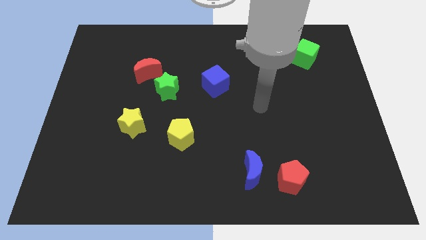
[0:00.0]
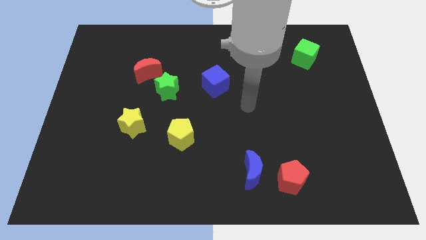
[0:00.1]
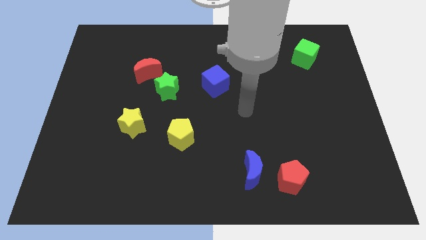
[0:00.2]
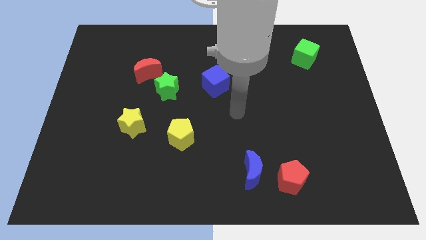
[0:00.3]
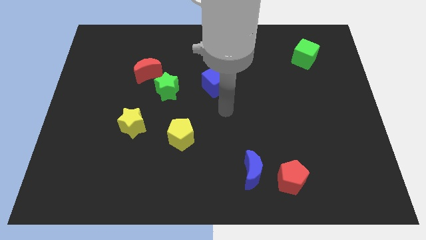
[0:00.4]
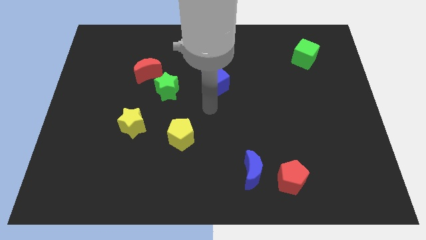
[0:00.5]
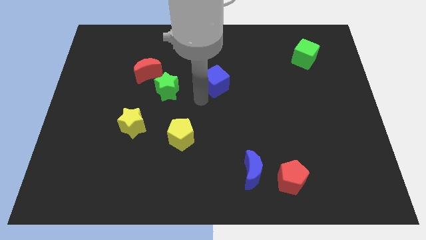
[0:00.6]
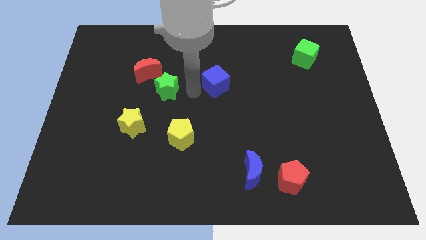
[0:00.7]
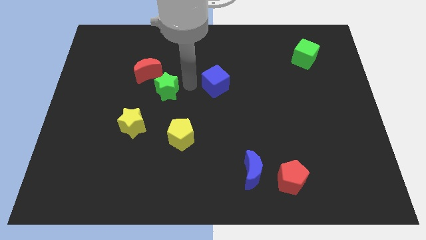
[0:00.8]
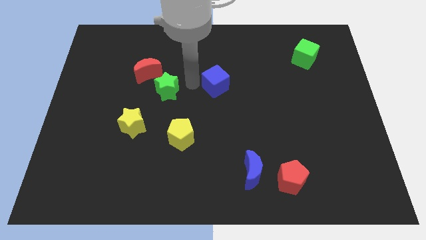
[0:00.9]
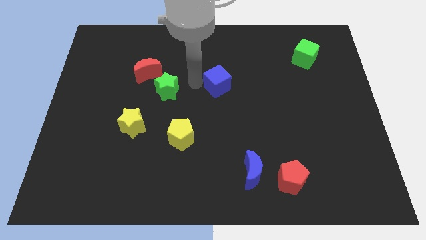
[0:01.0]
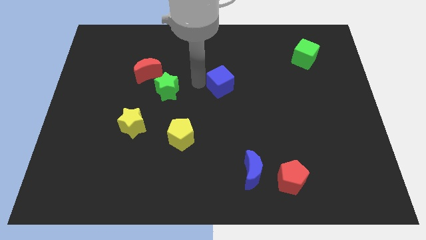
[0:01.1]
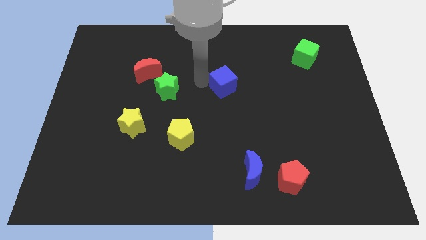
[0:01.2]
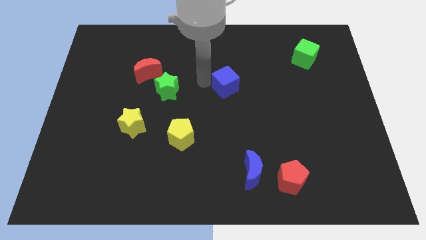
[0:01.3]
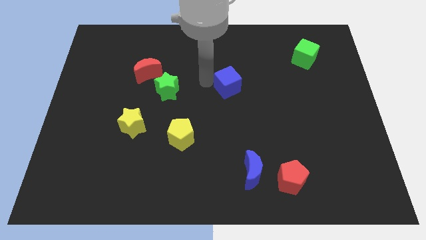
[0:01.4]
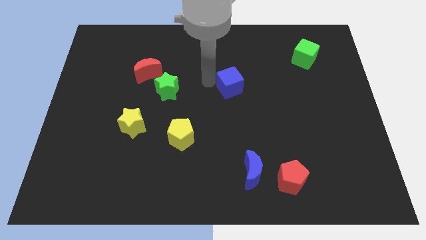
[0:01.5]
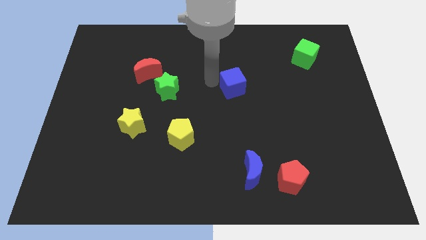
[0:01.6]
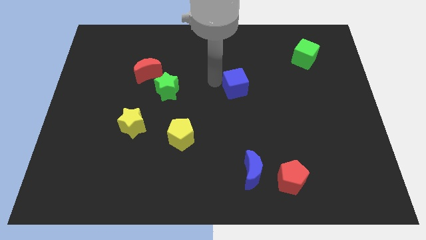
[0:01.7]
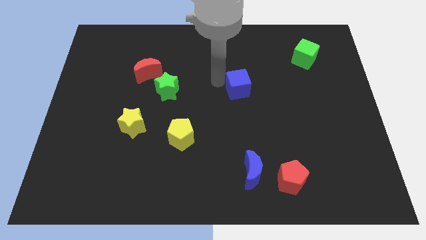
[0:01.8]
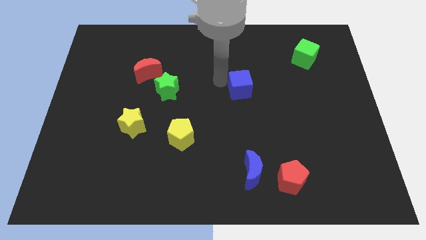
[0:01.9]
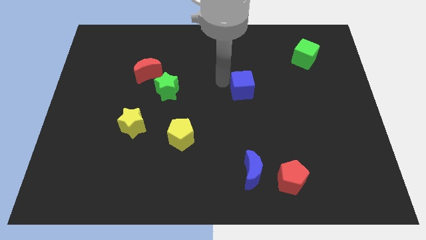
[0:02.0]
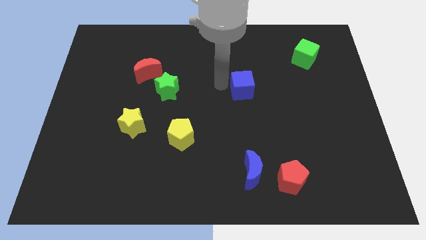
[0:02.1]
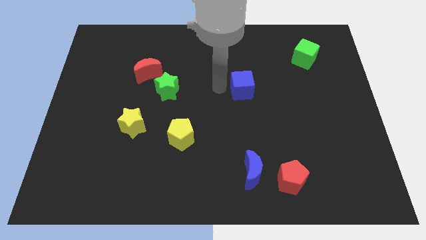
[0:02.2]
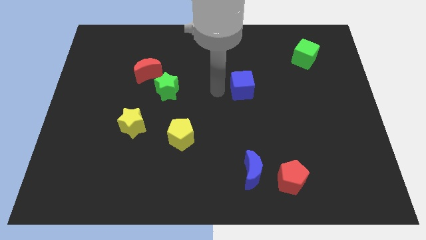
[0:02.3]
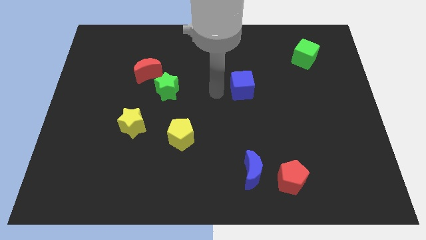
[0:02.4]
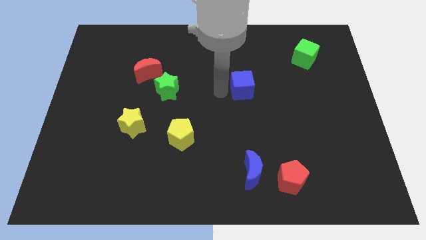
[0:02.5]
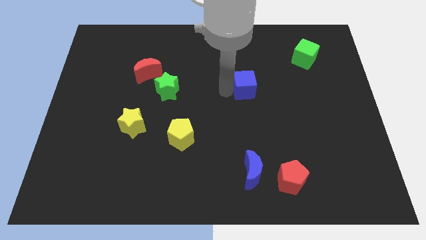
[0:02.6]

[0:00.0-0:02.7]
slightly move the blue cube to the right

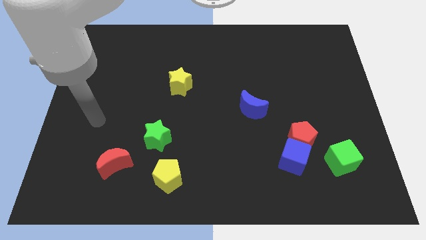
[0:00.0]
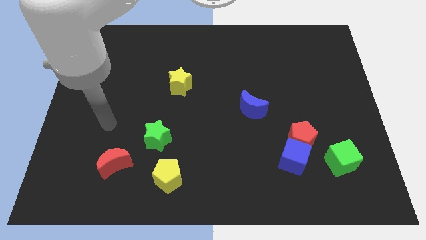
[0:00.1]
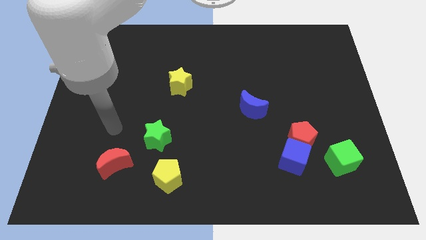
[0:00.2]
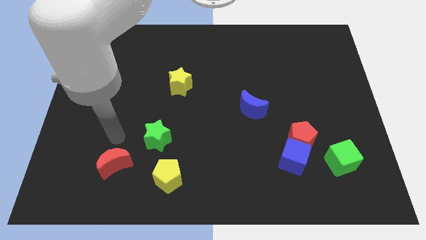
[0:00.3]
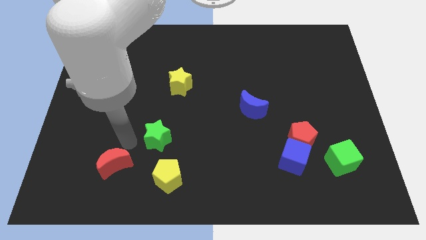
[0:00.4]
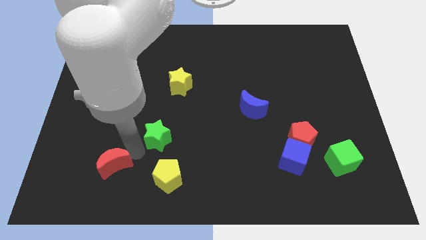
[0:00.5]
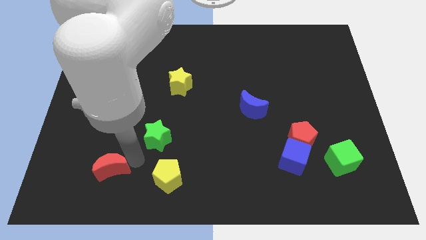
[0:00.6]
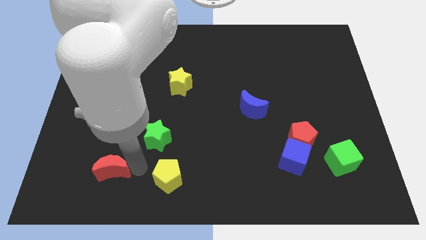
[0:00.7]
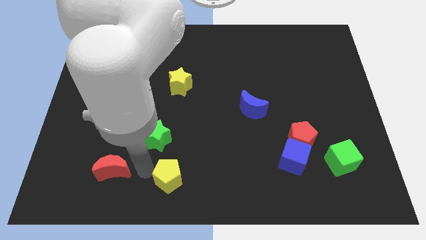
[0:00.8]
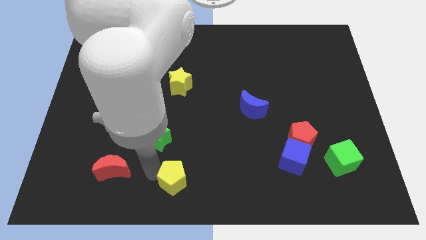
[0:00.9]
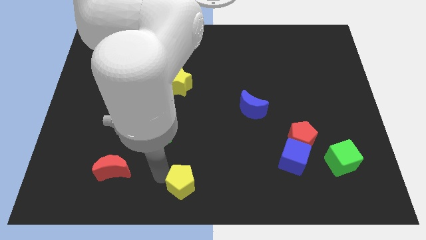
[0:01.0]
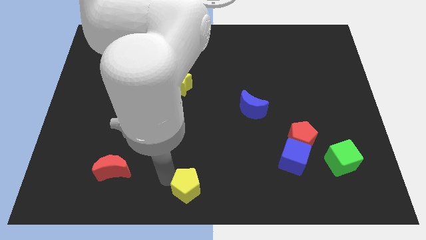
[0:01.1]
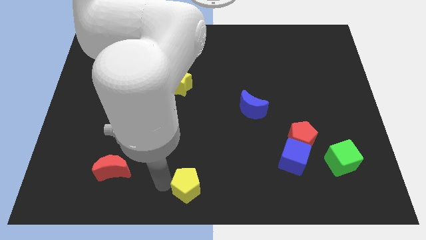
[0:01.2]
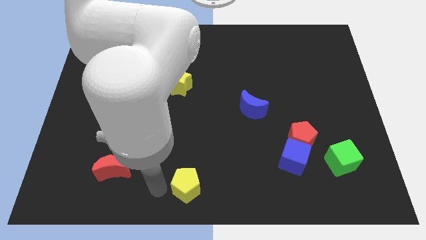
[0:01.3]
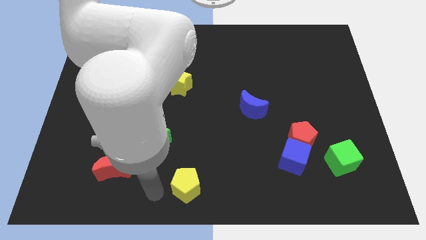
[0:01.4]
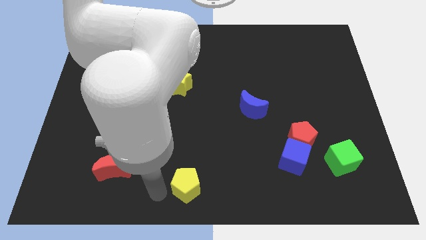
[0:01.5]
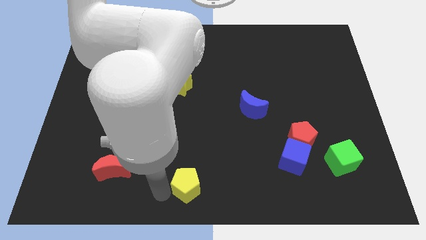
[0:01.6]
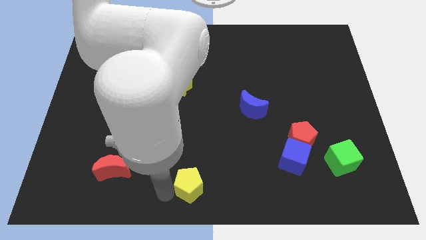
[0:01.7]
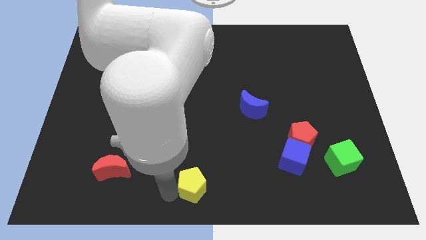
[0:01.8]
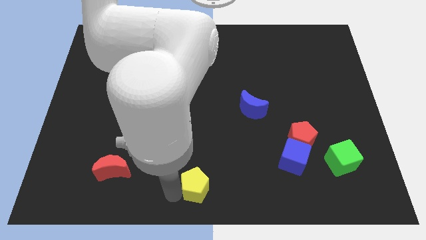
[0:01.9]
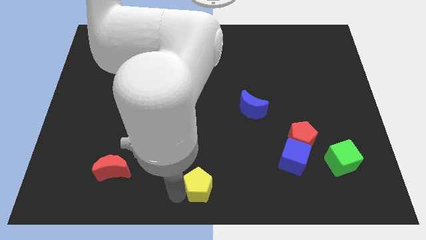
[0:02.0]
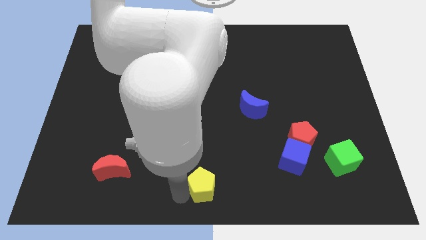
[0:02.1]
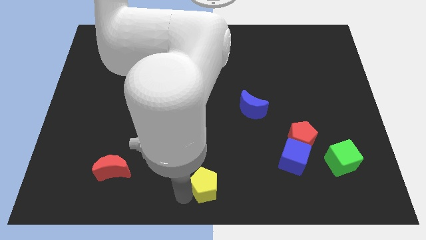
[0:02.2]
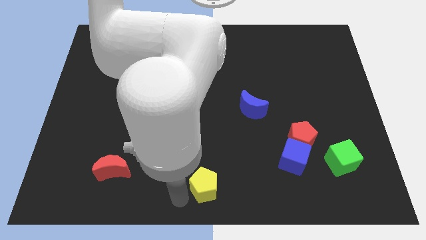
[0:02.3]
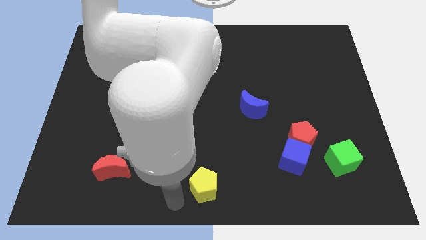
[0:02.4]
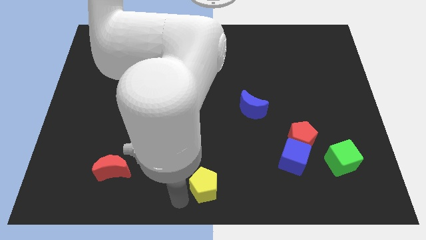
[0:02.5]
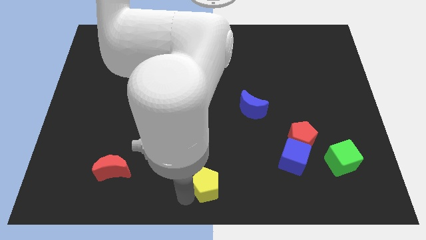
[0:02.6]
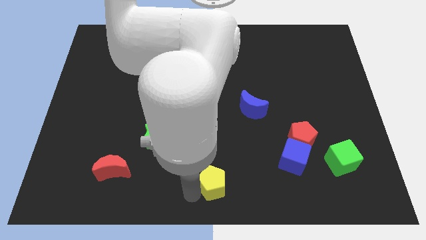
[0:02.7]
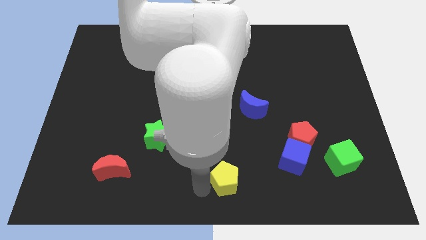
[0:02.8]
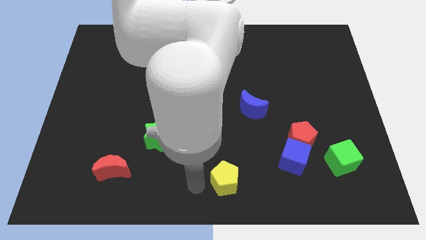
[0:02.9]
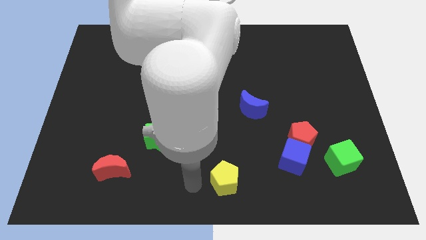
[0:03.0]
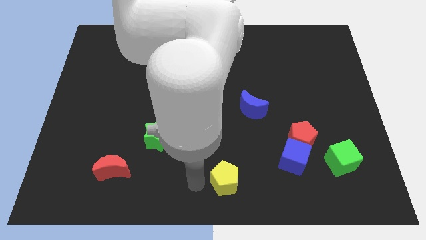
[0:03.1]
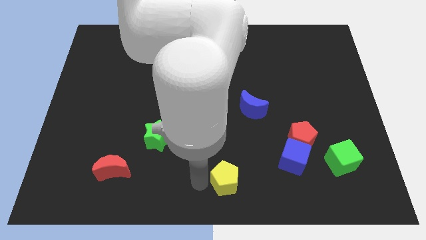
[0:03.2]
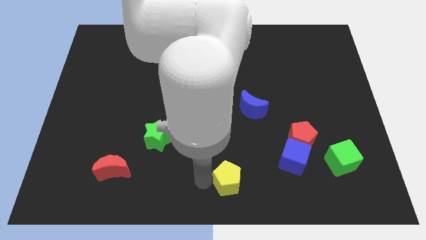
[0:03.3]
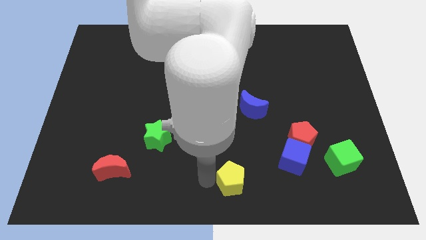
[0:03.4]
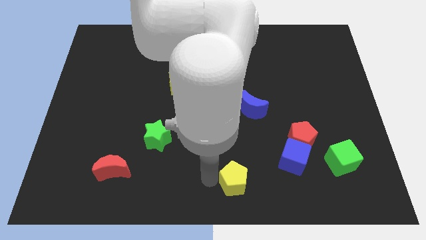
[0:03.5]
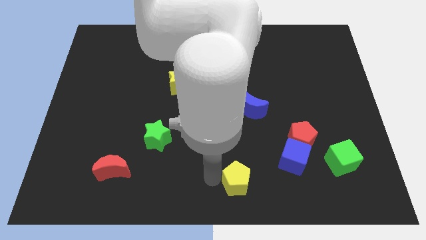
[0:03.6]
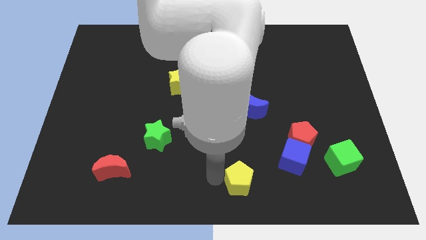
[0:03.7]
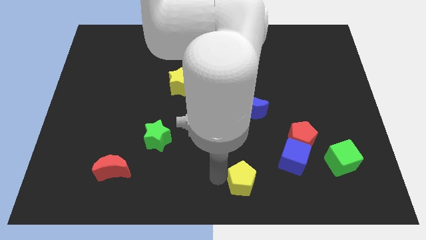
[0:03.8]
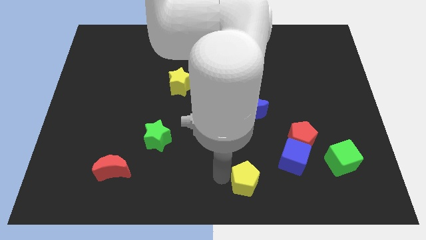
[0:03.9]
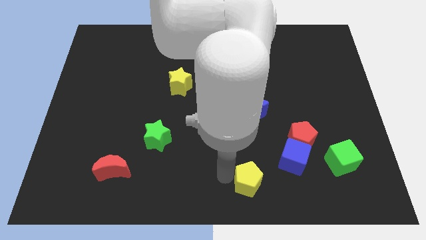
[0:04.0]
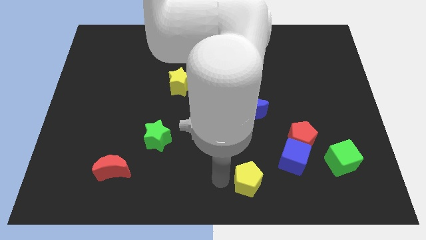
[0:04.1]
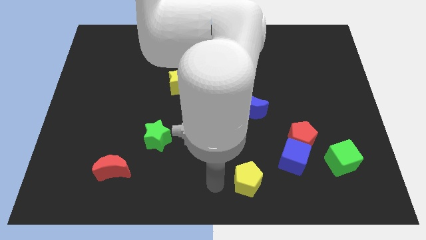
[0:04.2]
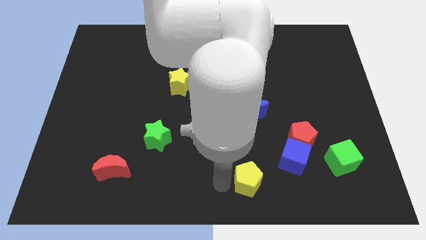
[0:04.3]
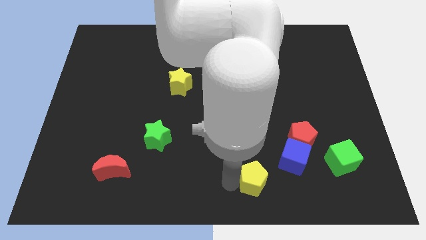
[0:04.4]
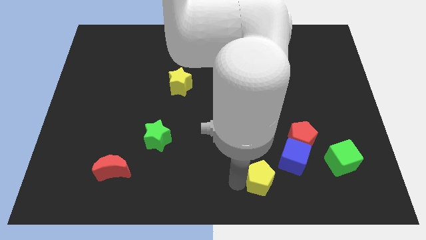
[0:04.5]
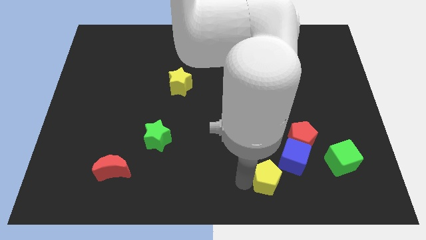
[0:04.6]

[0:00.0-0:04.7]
push the yellow pentagon to the right

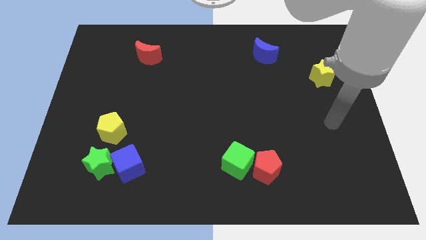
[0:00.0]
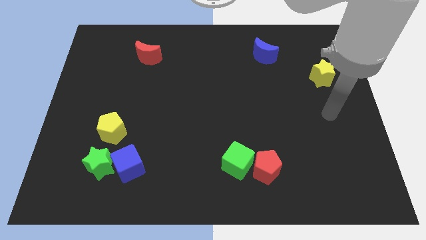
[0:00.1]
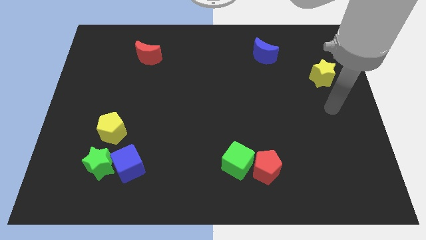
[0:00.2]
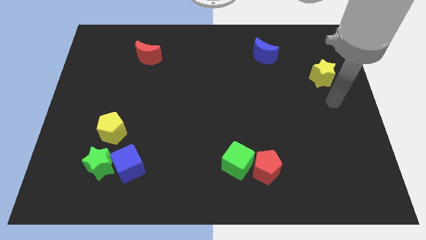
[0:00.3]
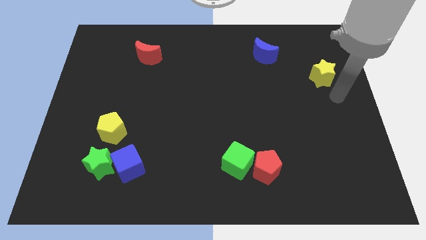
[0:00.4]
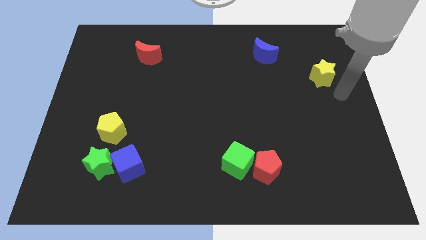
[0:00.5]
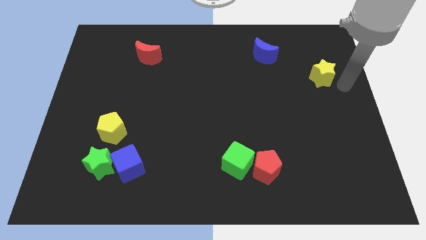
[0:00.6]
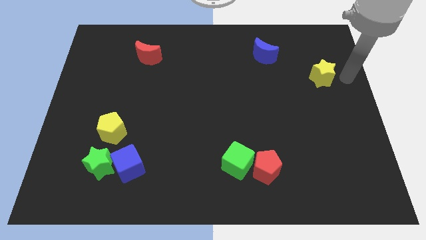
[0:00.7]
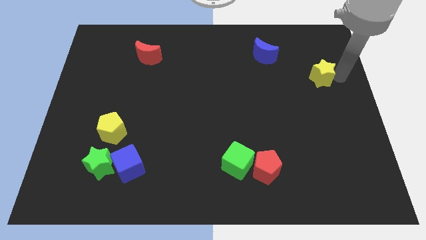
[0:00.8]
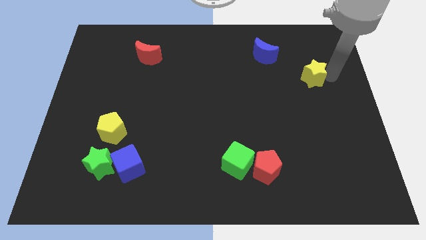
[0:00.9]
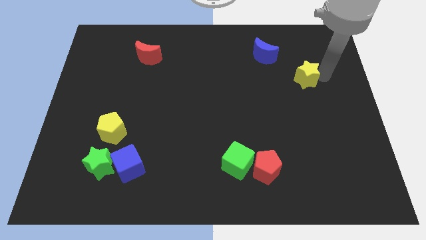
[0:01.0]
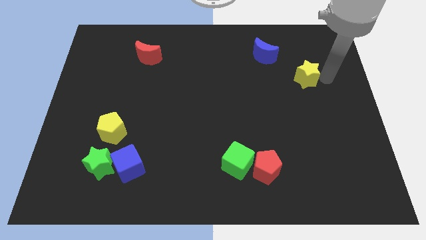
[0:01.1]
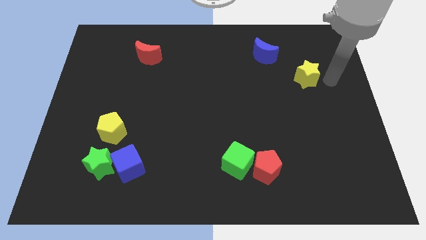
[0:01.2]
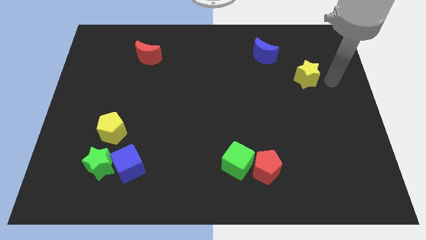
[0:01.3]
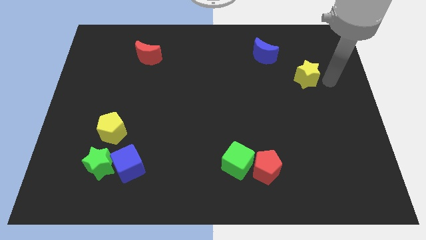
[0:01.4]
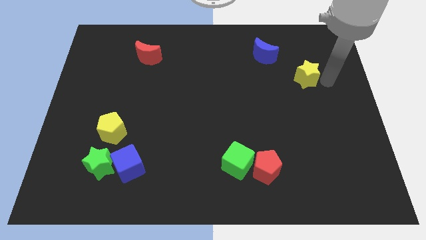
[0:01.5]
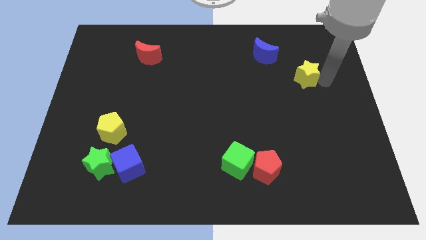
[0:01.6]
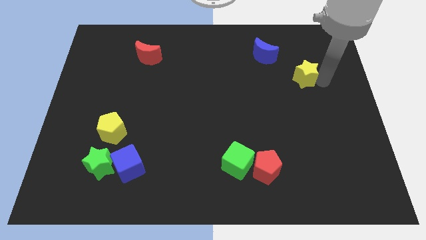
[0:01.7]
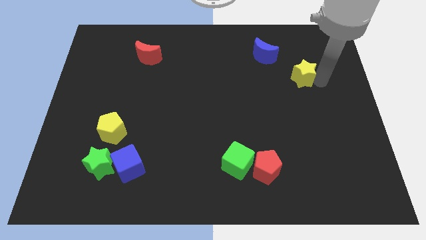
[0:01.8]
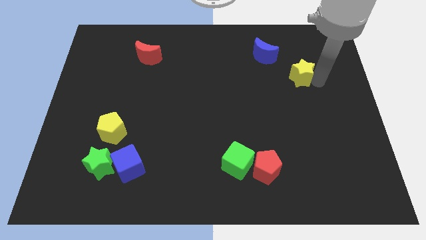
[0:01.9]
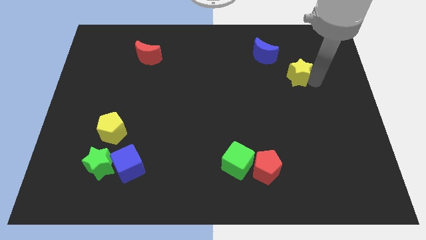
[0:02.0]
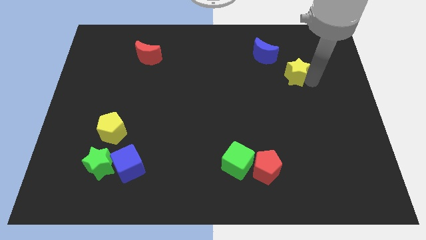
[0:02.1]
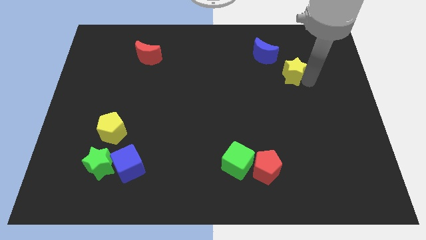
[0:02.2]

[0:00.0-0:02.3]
slightly move the yellow star to the left
